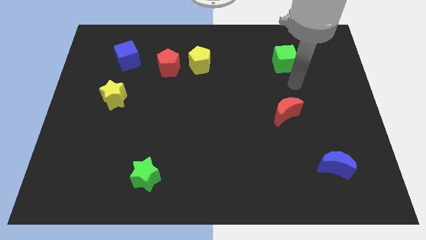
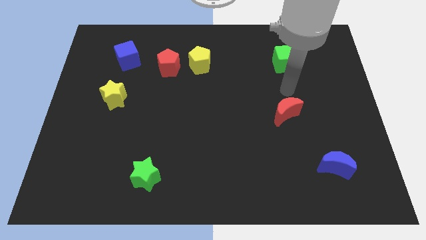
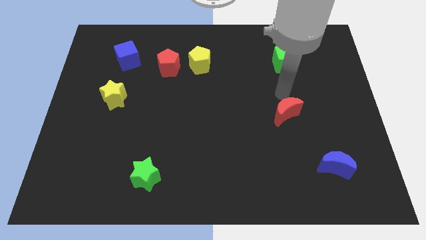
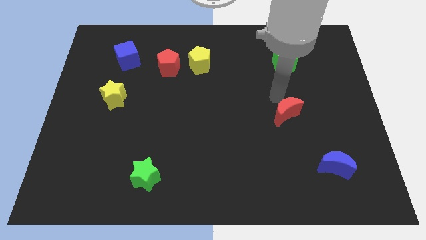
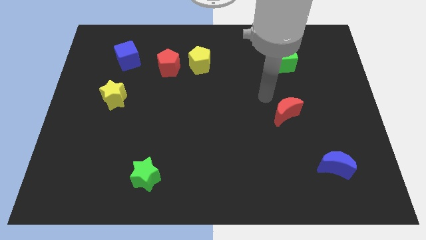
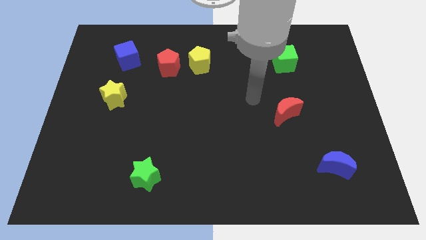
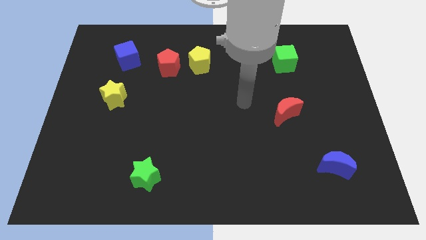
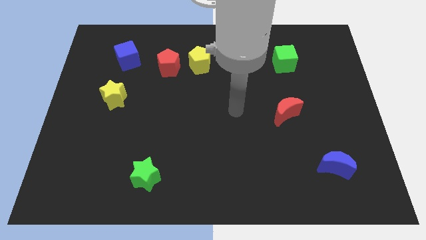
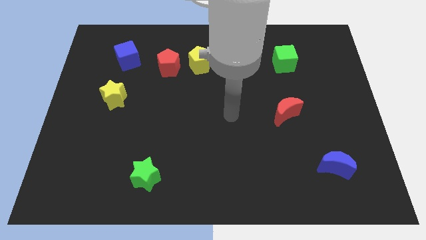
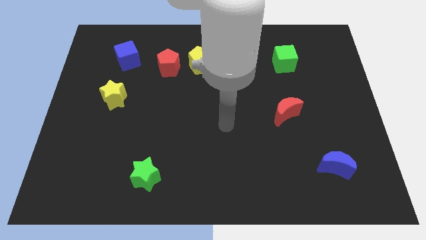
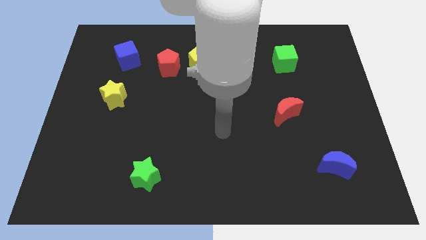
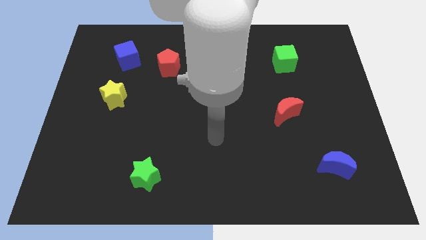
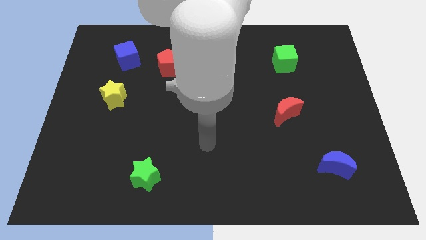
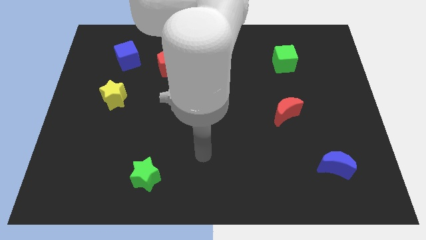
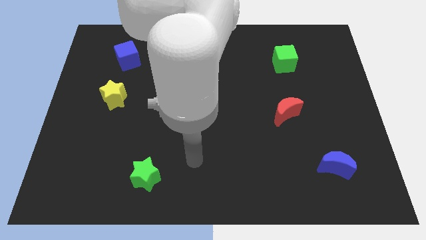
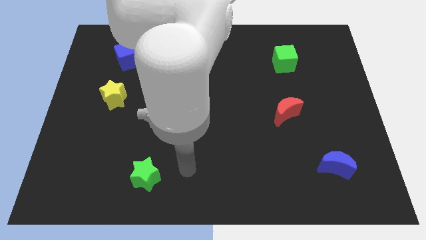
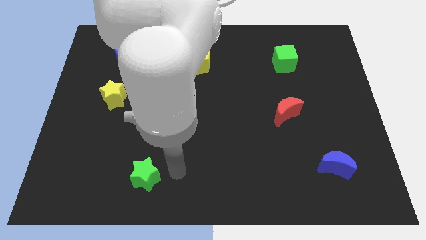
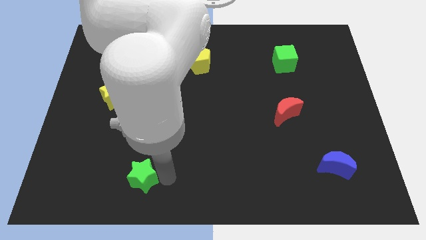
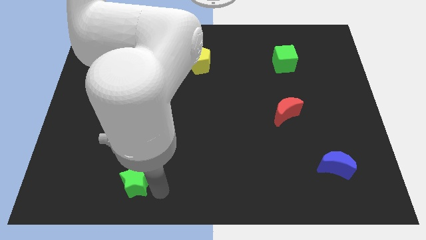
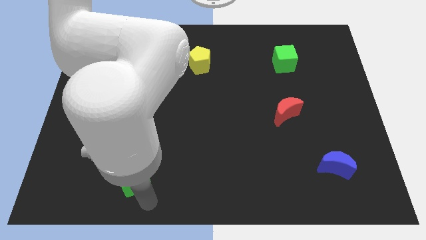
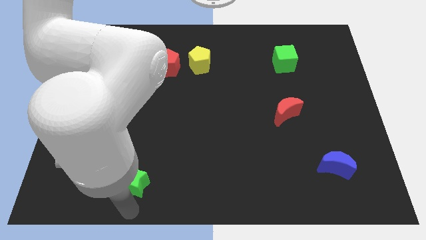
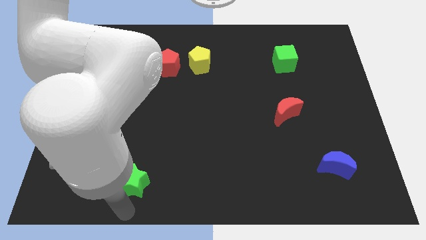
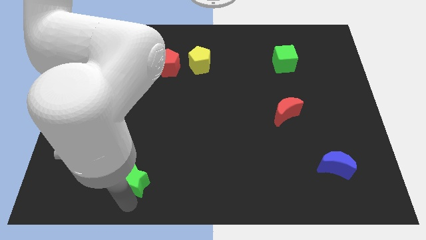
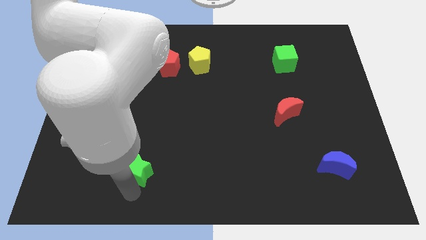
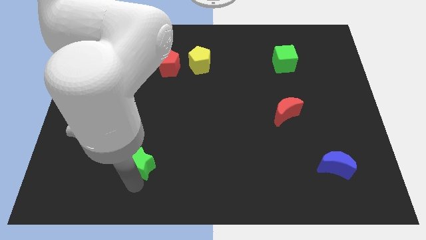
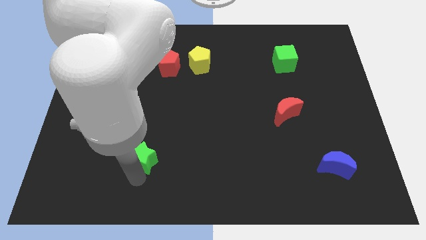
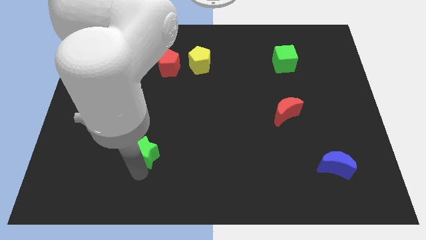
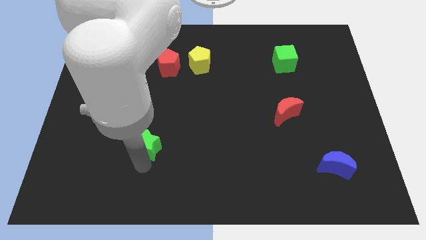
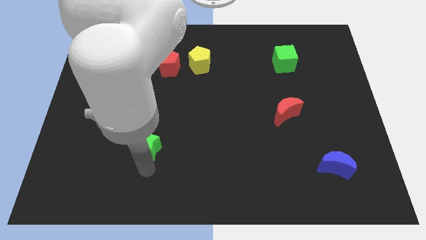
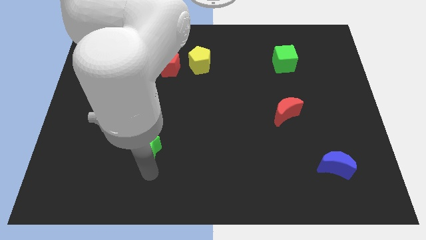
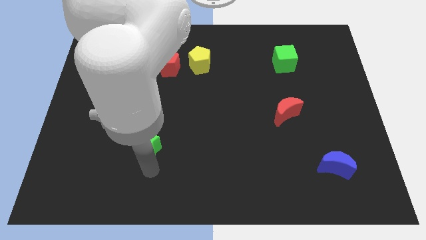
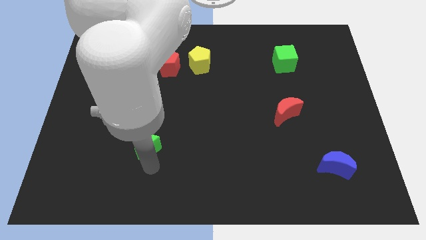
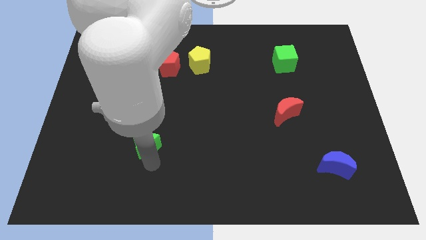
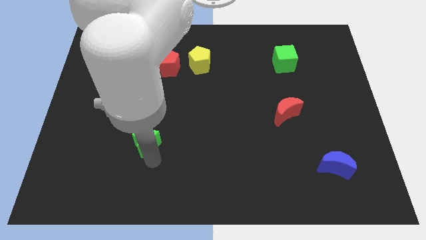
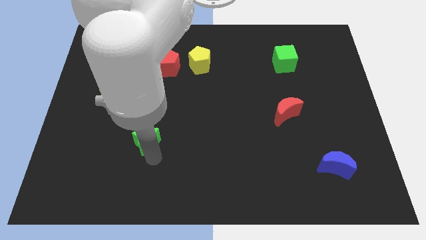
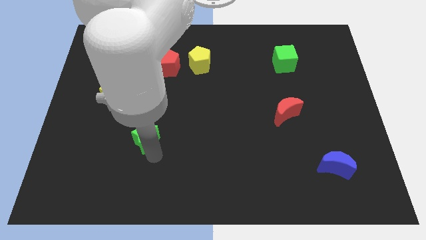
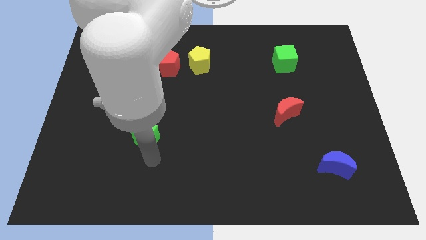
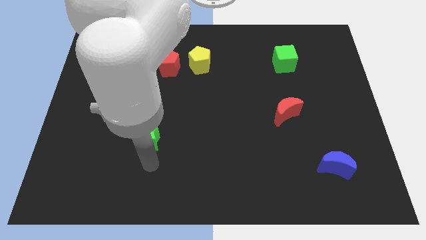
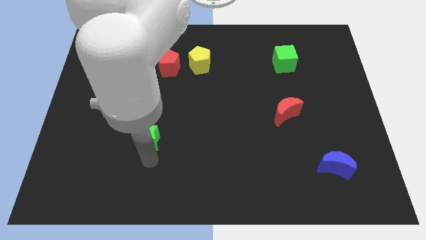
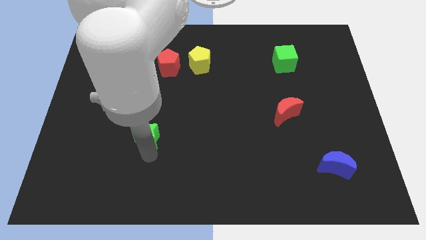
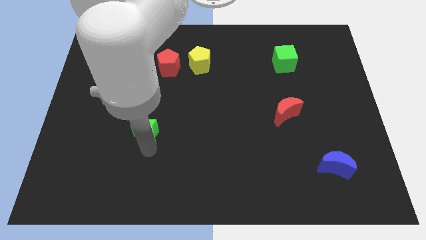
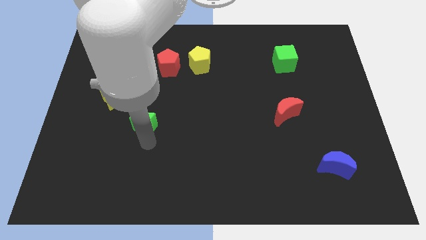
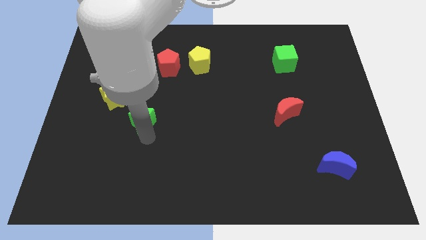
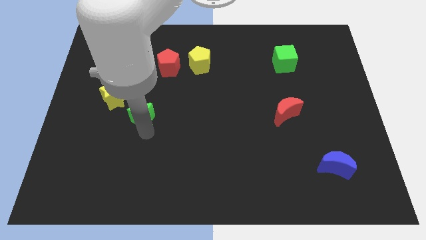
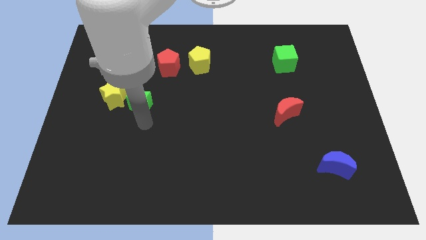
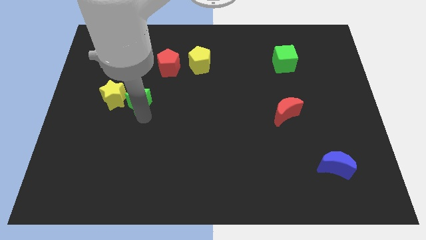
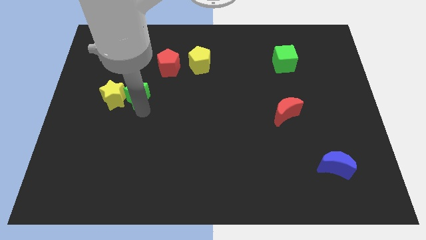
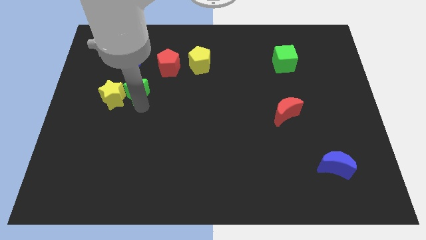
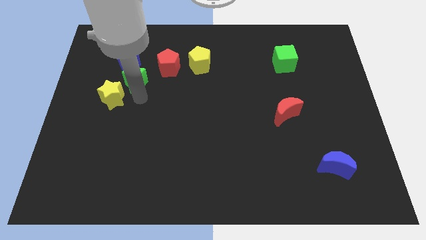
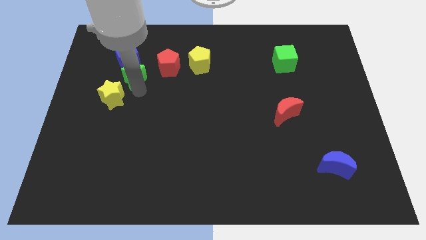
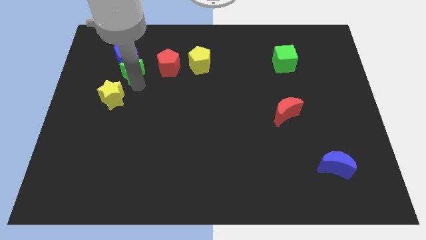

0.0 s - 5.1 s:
move the green star next to the blue cube

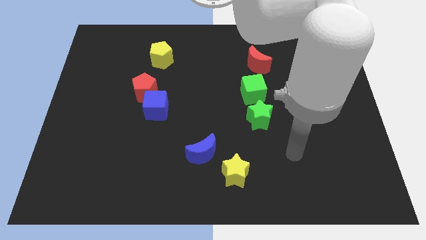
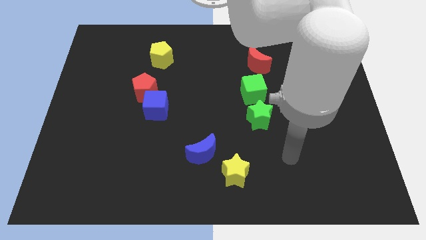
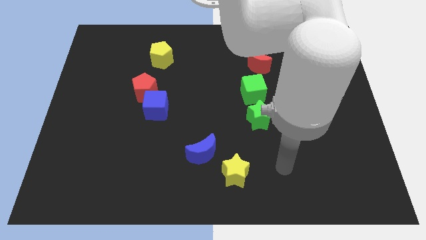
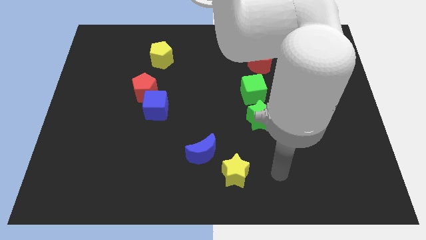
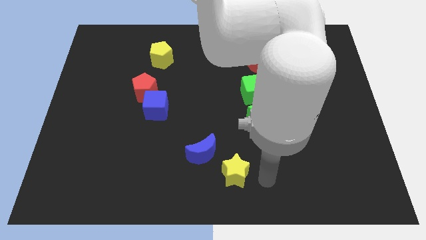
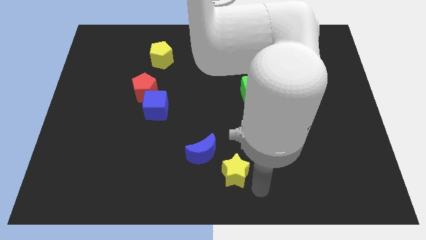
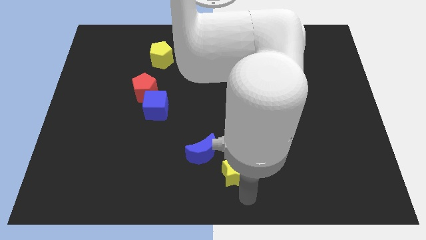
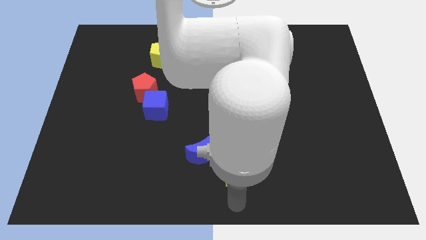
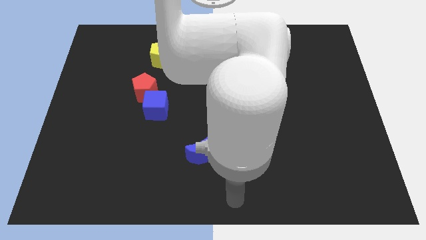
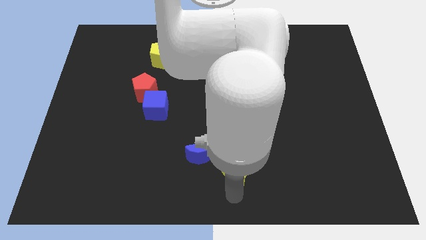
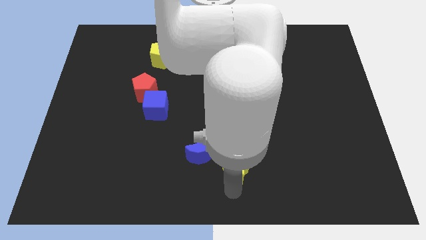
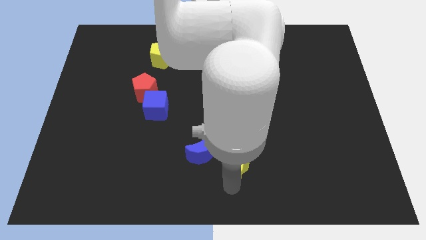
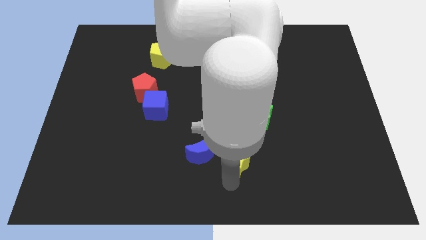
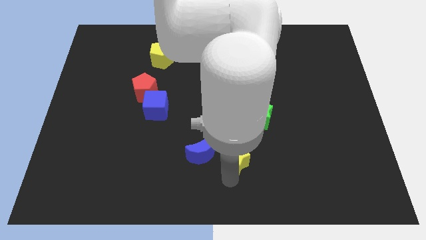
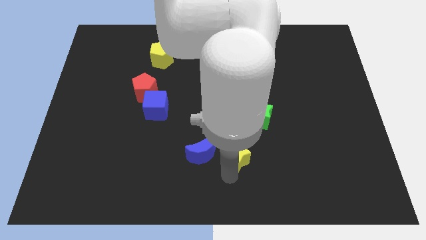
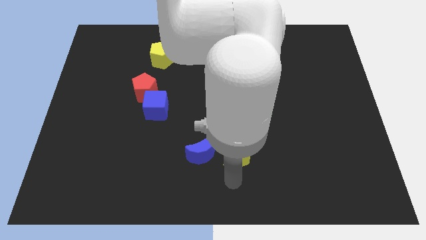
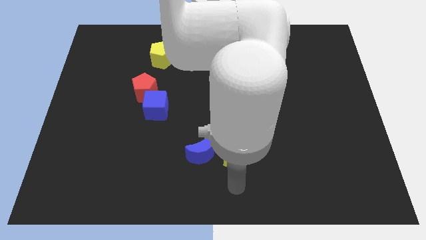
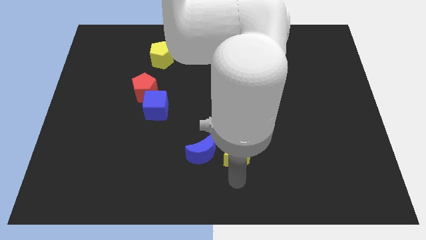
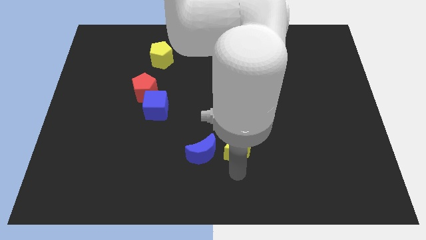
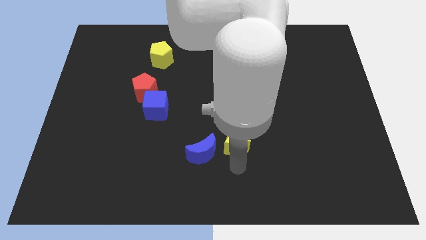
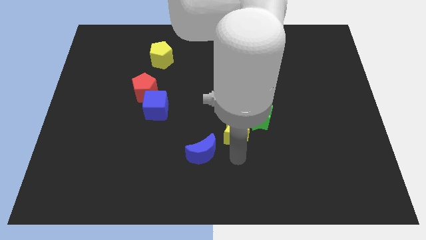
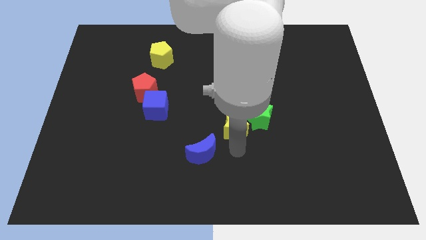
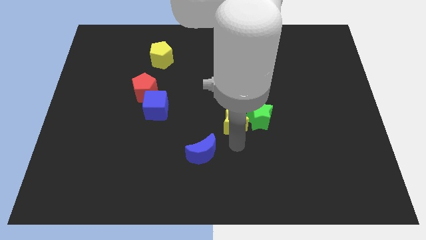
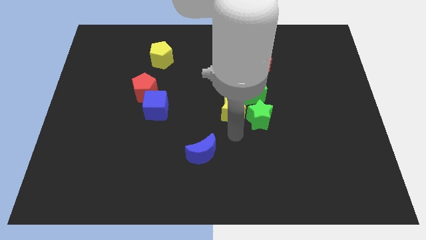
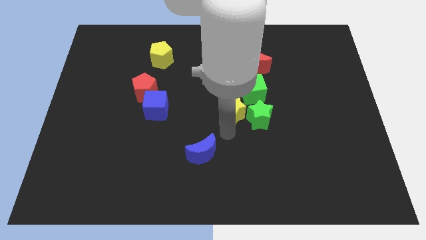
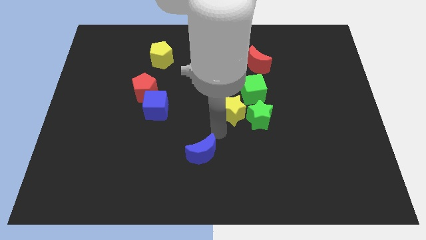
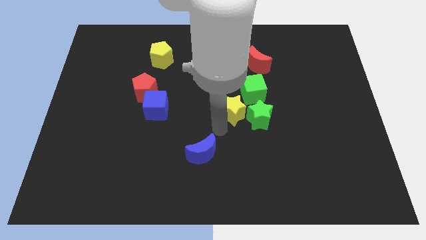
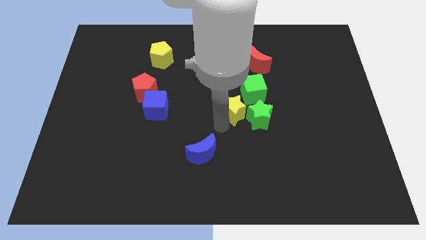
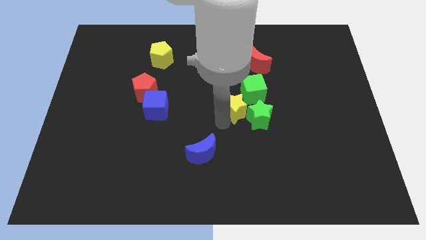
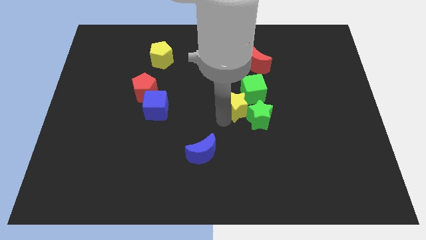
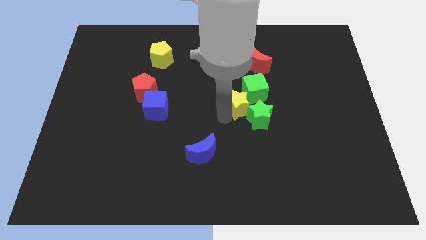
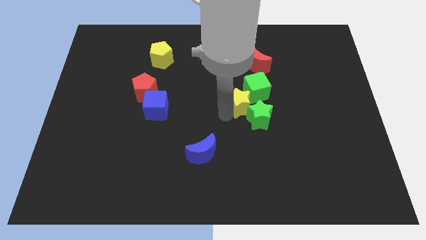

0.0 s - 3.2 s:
push the yellow star next to the green cube
